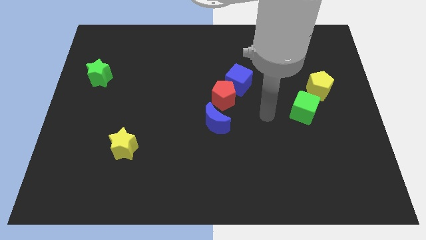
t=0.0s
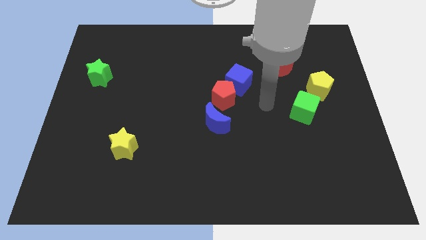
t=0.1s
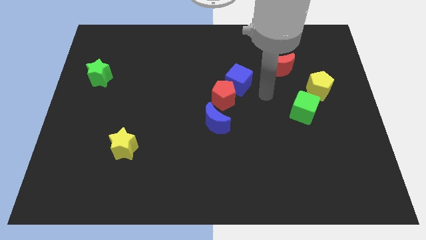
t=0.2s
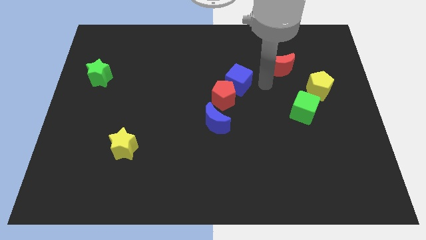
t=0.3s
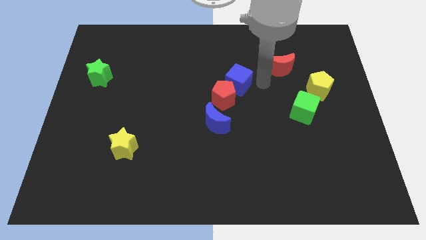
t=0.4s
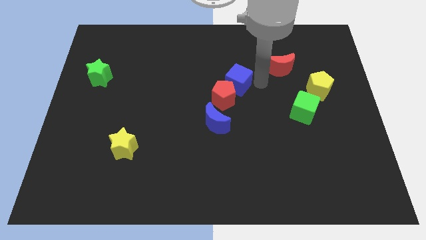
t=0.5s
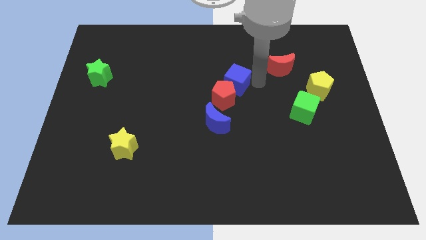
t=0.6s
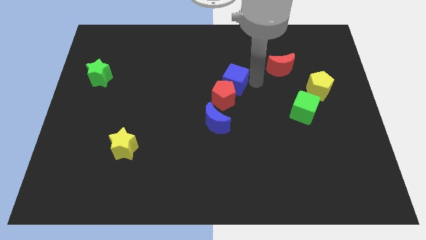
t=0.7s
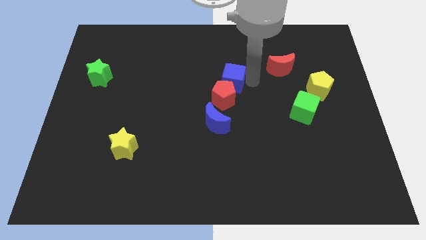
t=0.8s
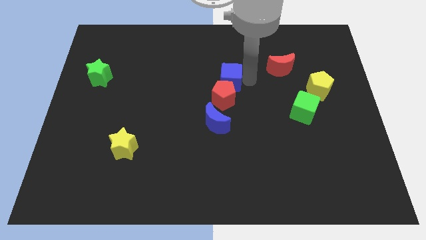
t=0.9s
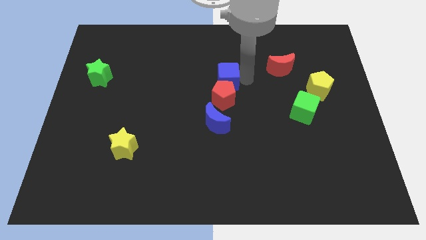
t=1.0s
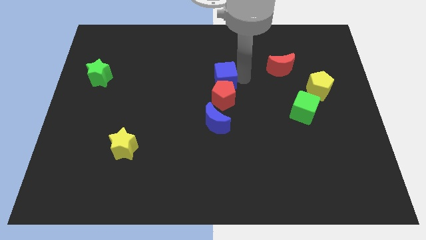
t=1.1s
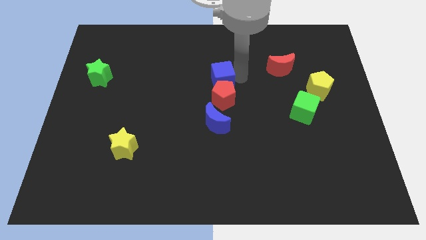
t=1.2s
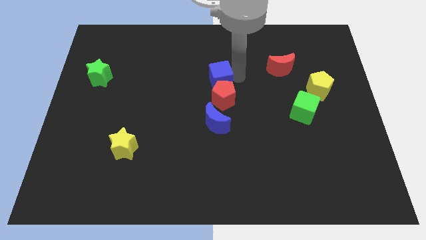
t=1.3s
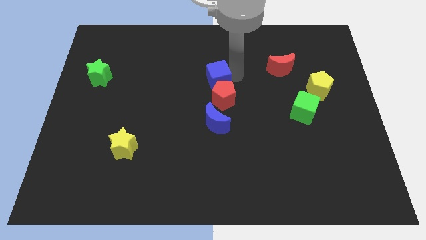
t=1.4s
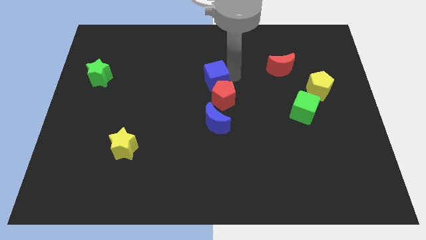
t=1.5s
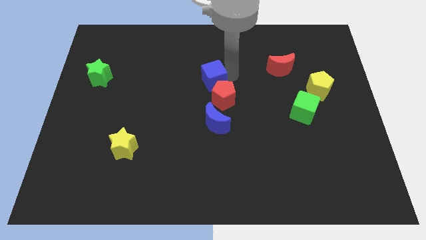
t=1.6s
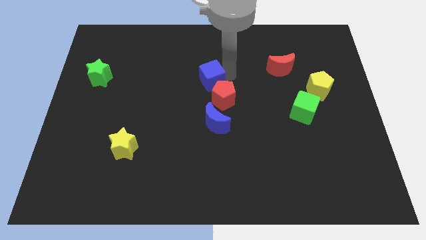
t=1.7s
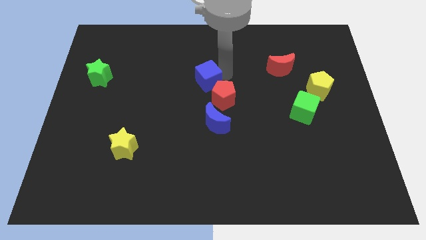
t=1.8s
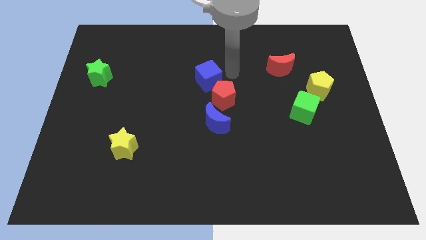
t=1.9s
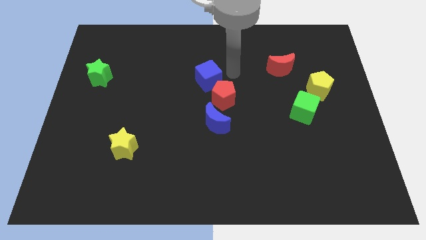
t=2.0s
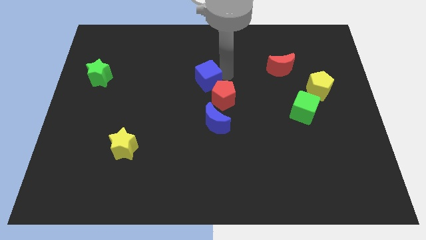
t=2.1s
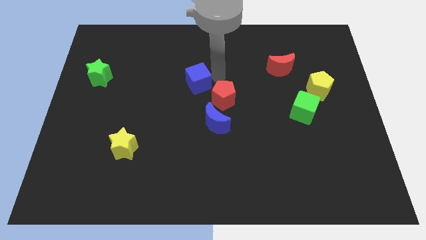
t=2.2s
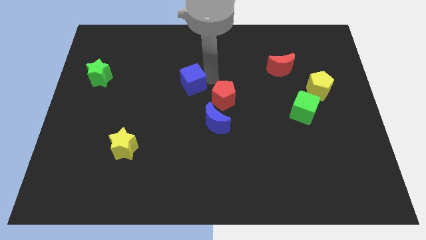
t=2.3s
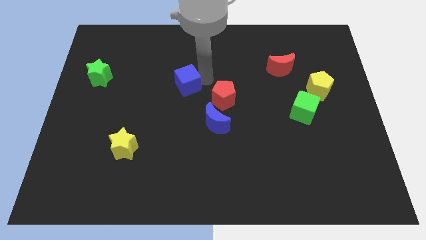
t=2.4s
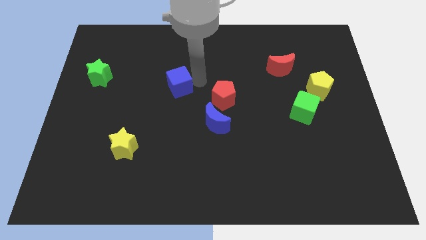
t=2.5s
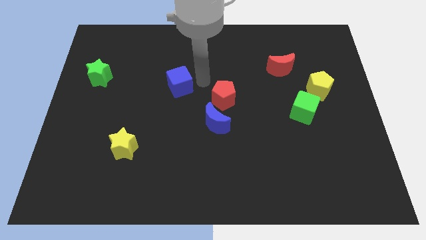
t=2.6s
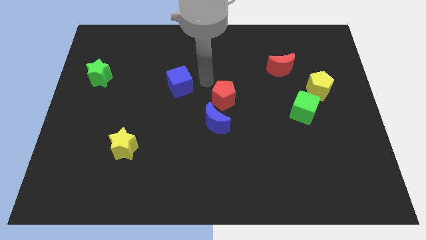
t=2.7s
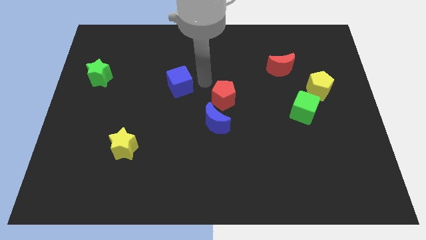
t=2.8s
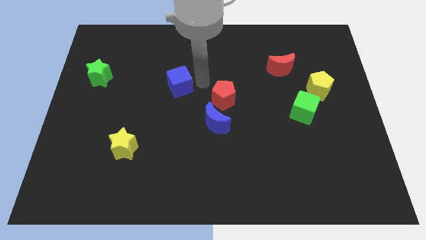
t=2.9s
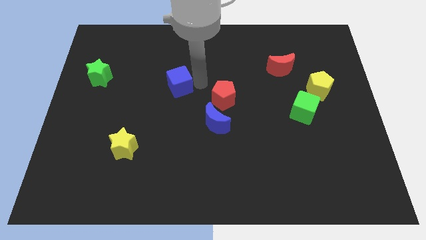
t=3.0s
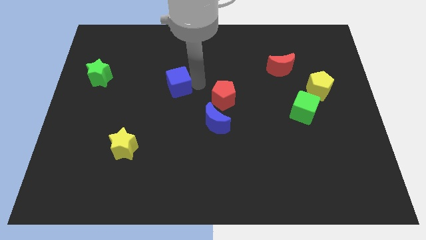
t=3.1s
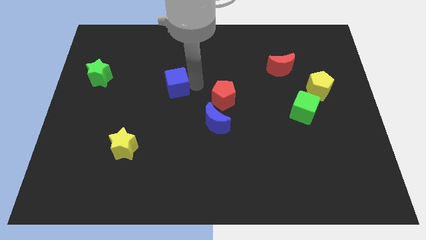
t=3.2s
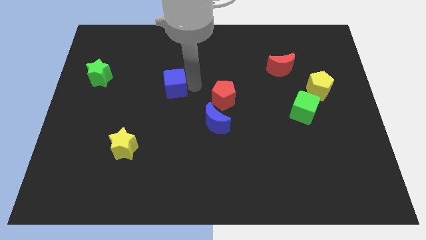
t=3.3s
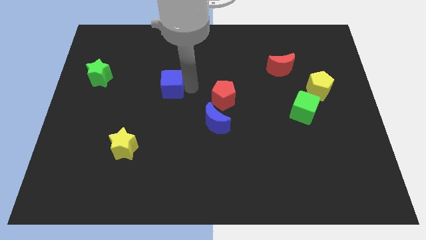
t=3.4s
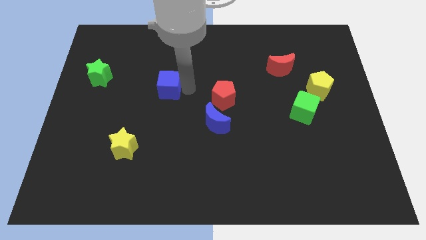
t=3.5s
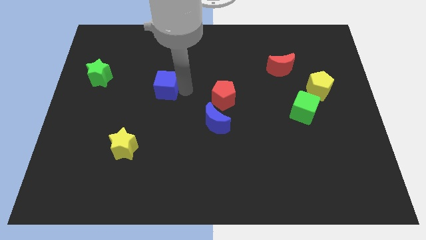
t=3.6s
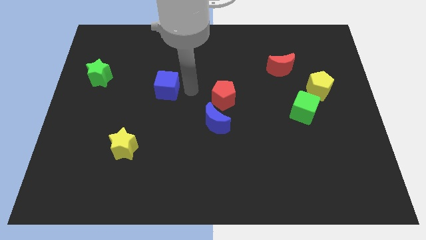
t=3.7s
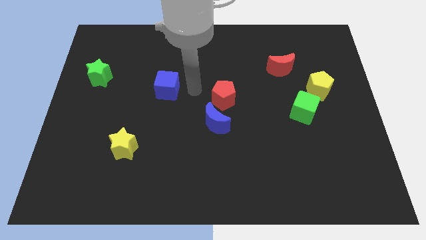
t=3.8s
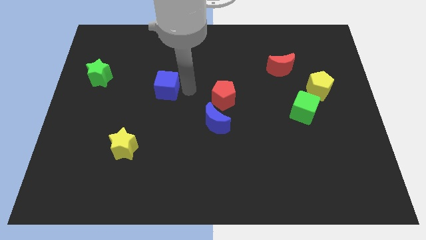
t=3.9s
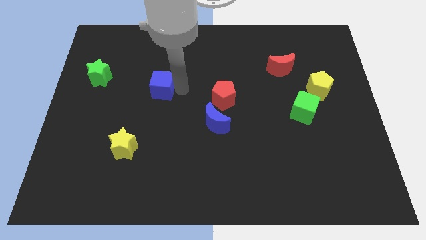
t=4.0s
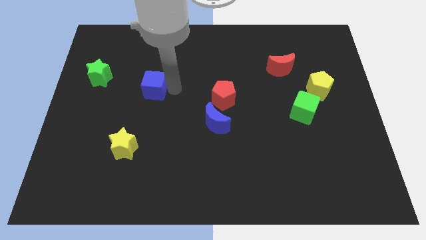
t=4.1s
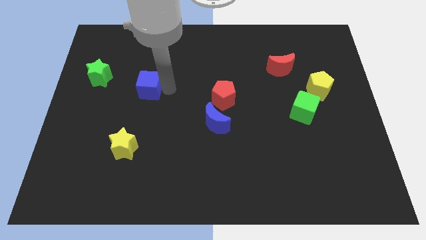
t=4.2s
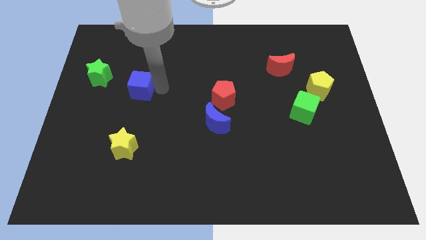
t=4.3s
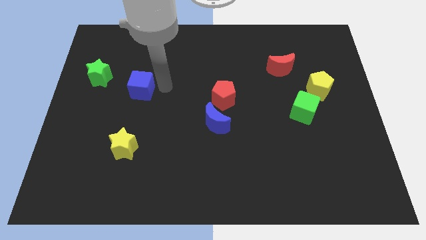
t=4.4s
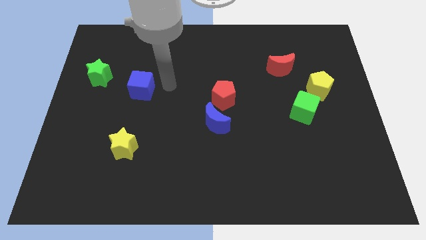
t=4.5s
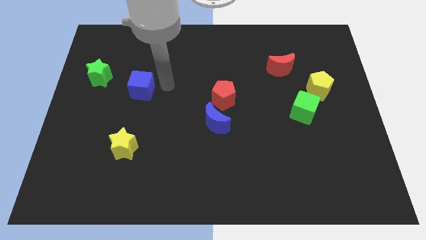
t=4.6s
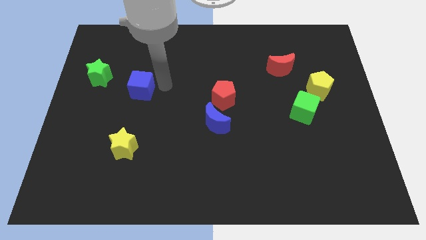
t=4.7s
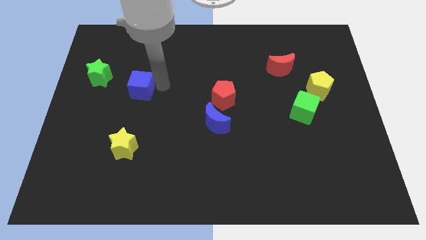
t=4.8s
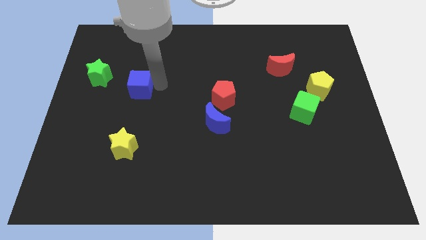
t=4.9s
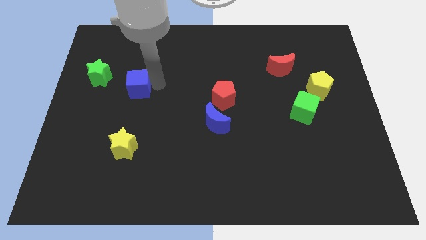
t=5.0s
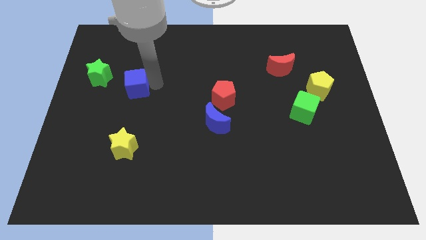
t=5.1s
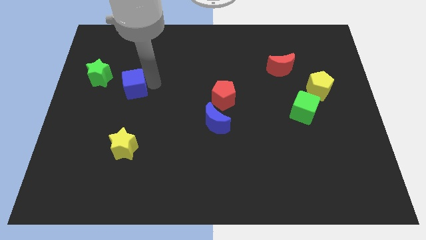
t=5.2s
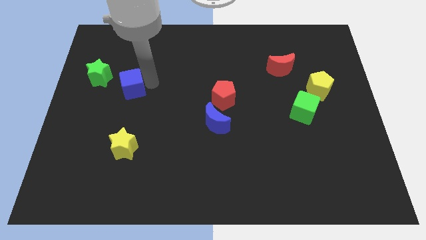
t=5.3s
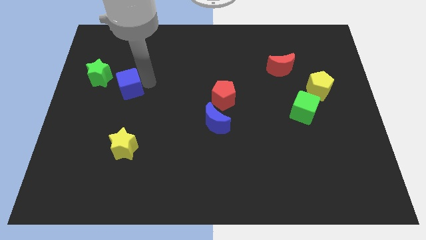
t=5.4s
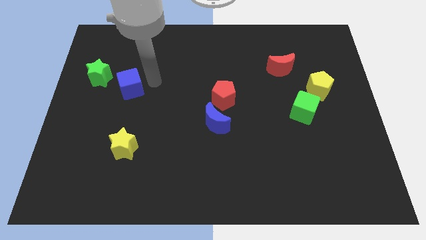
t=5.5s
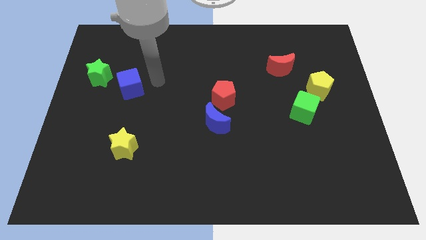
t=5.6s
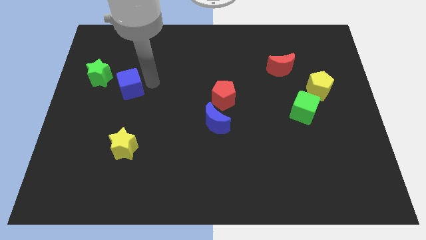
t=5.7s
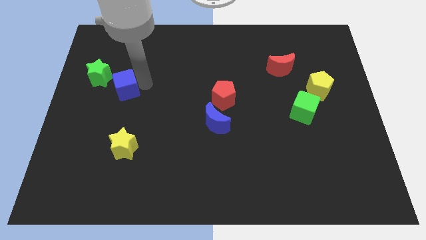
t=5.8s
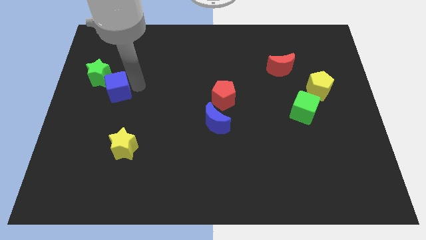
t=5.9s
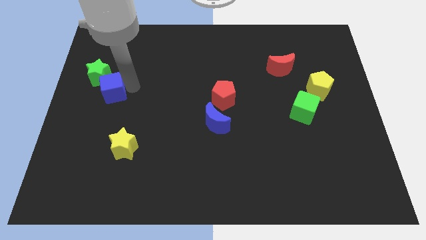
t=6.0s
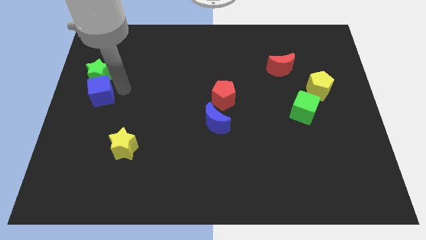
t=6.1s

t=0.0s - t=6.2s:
push the blue cube to the left side of the board
